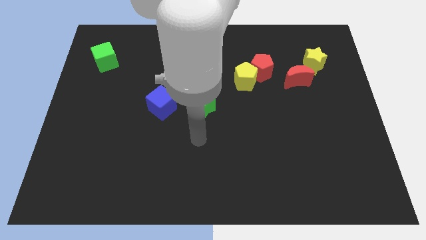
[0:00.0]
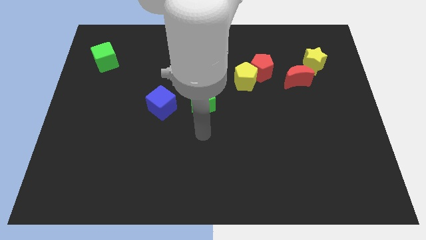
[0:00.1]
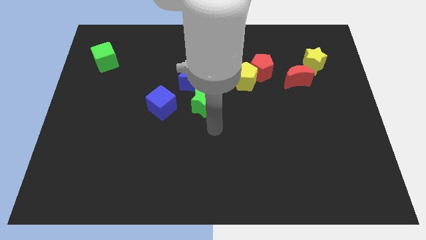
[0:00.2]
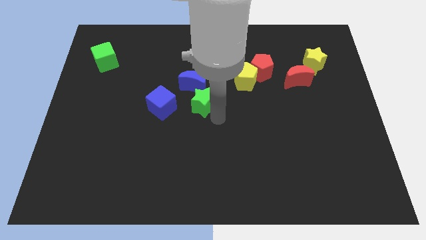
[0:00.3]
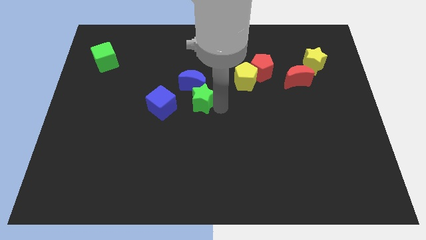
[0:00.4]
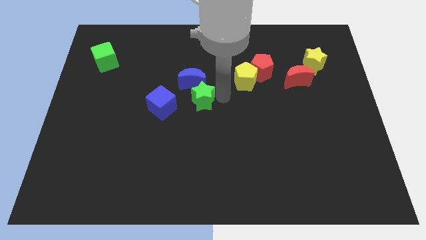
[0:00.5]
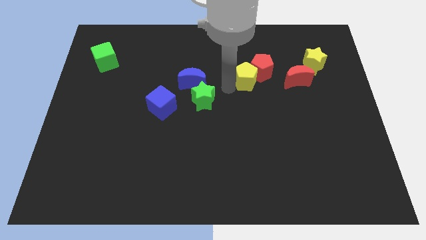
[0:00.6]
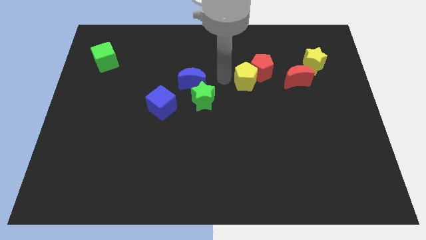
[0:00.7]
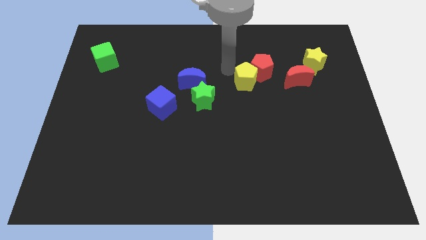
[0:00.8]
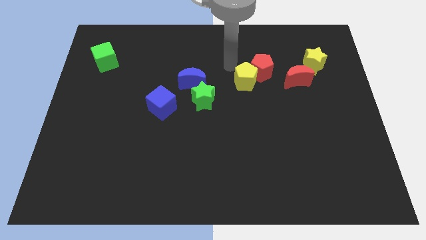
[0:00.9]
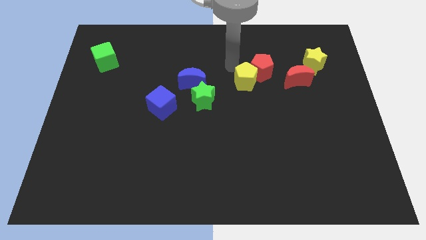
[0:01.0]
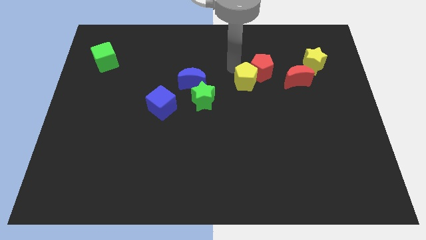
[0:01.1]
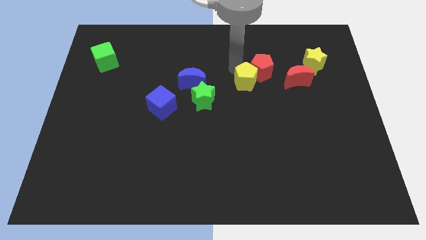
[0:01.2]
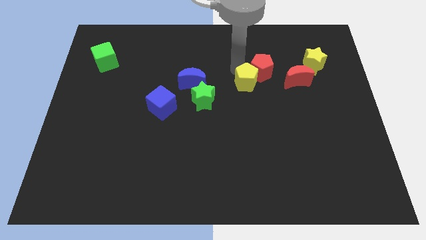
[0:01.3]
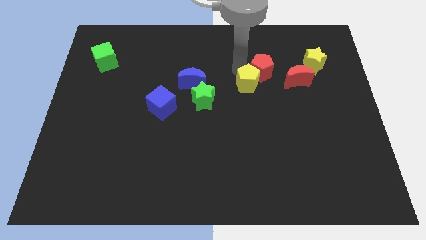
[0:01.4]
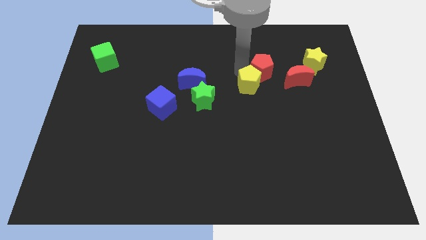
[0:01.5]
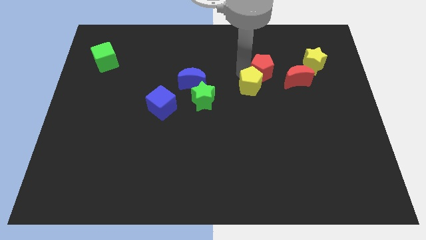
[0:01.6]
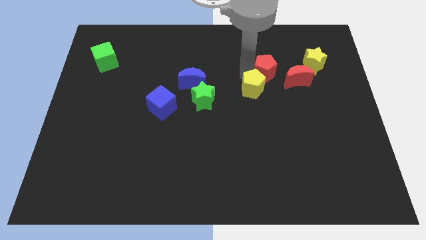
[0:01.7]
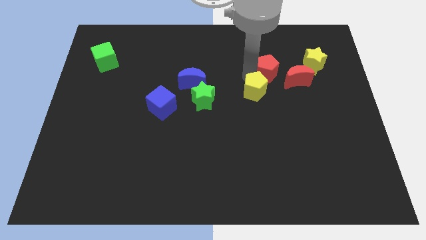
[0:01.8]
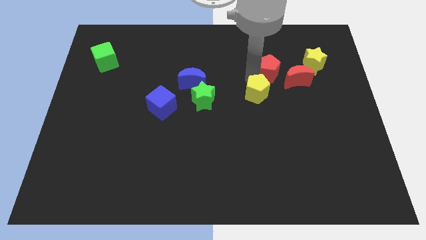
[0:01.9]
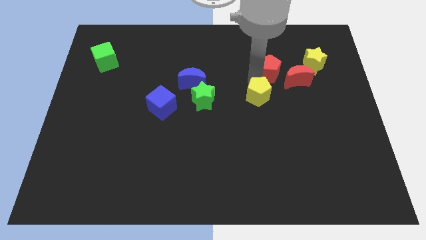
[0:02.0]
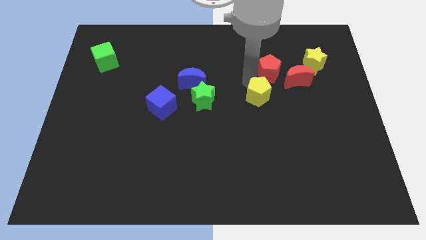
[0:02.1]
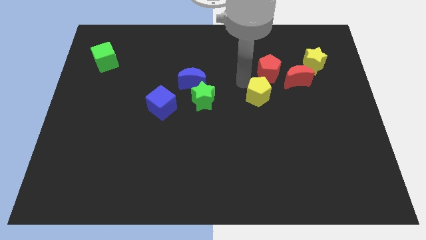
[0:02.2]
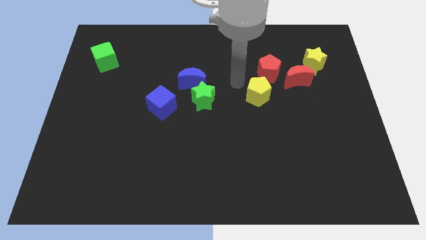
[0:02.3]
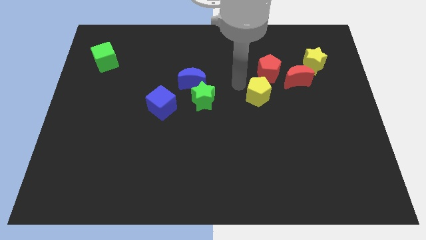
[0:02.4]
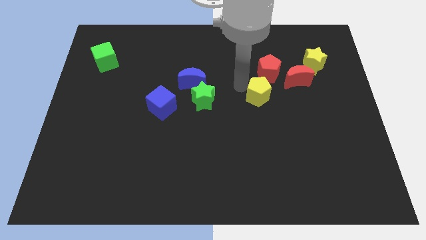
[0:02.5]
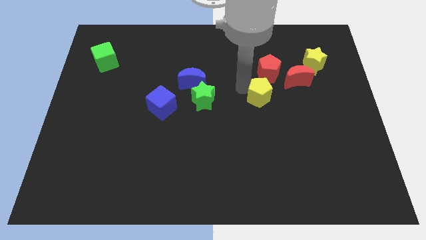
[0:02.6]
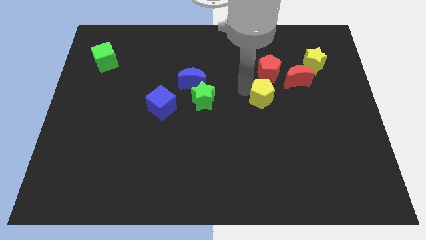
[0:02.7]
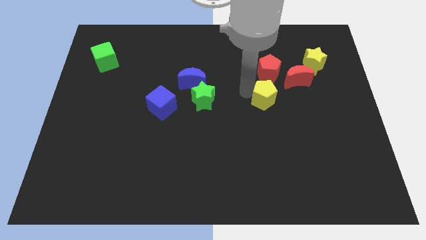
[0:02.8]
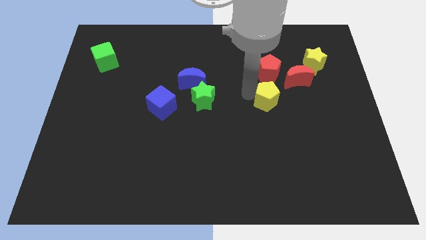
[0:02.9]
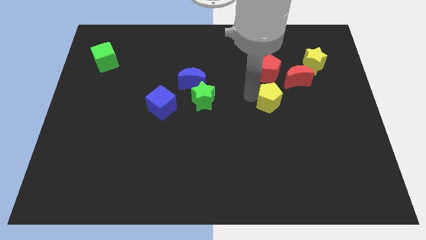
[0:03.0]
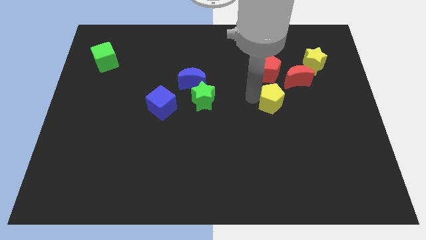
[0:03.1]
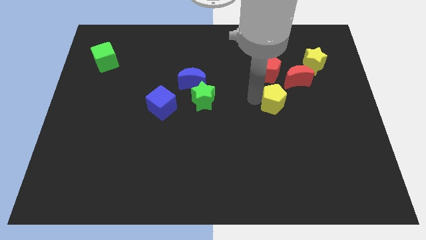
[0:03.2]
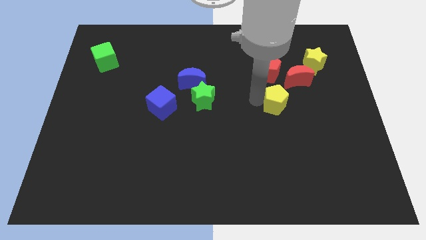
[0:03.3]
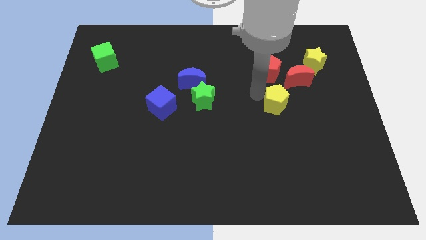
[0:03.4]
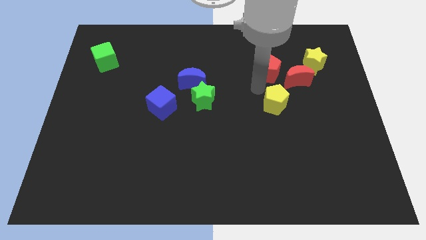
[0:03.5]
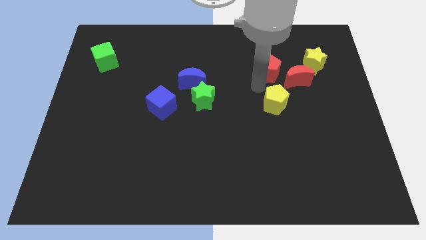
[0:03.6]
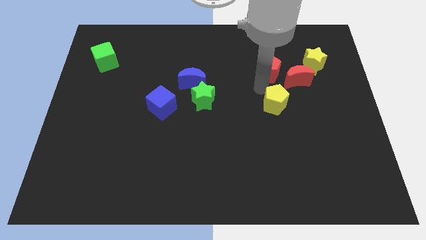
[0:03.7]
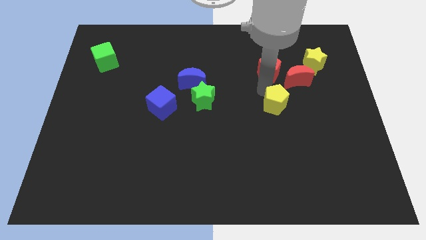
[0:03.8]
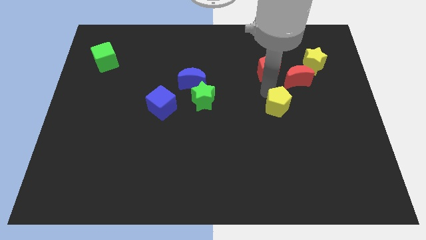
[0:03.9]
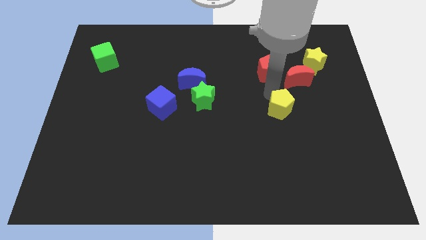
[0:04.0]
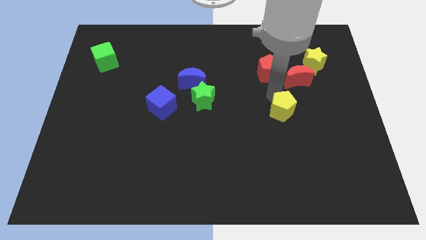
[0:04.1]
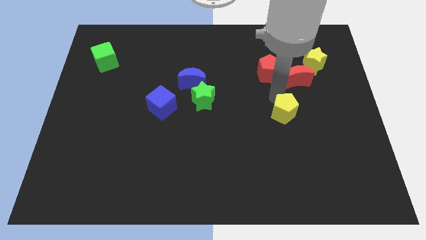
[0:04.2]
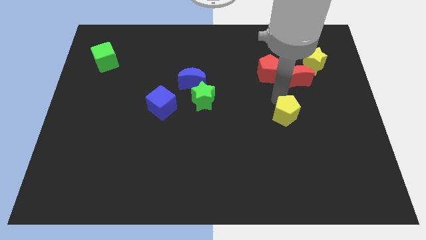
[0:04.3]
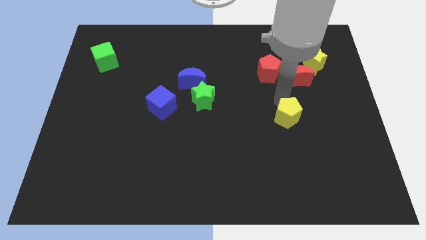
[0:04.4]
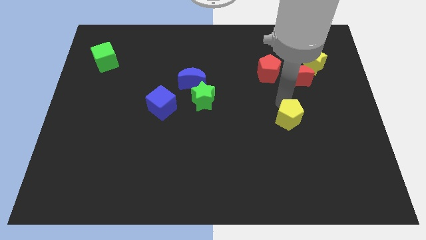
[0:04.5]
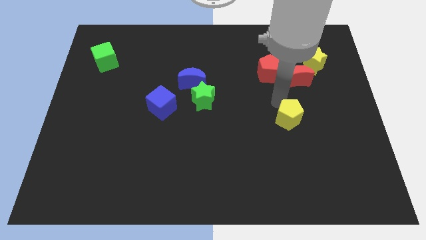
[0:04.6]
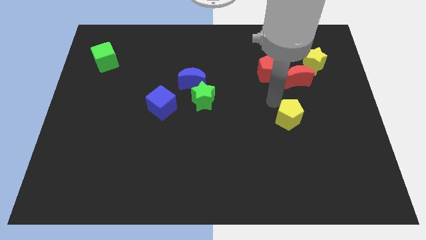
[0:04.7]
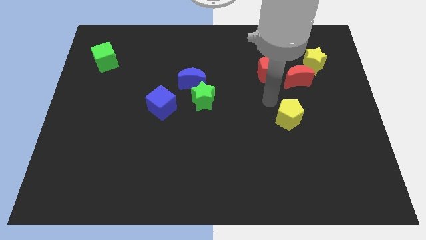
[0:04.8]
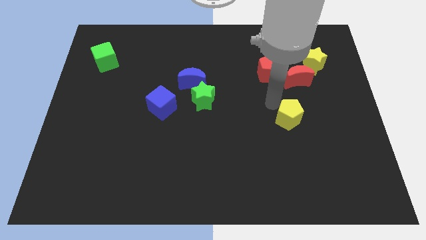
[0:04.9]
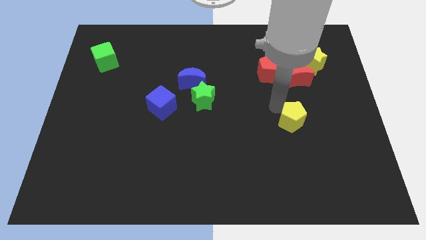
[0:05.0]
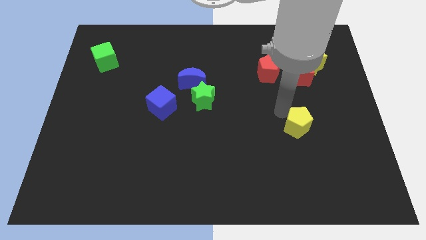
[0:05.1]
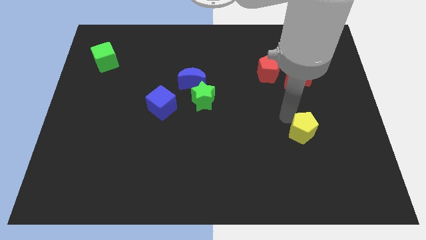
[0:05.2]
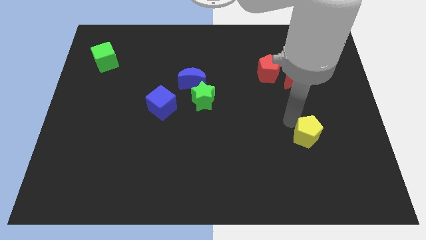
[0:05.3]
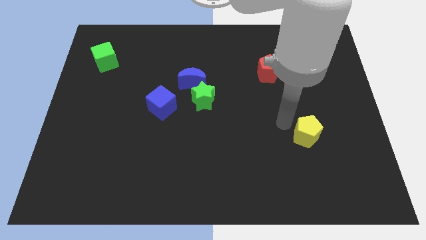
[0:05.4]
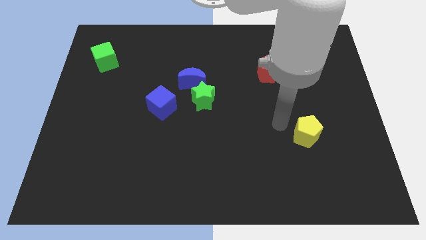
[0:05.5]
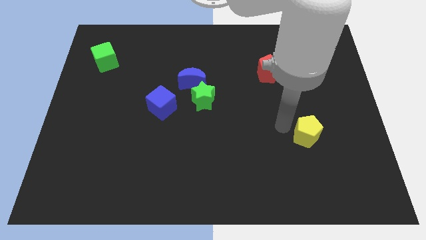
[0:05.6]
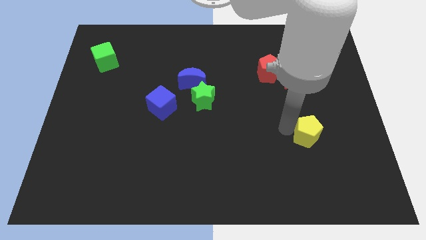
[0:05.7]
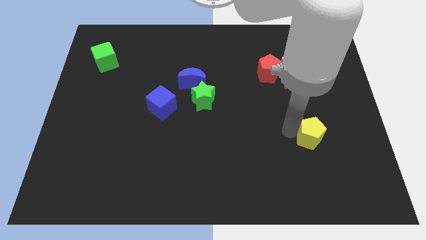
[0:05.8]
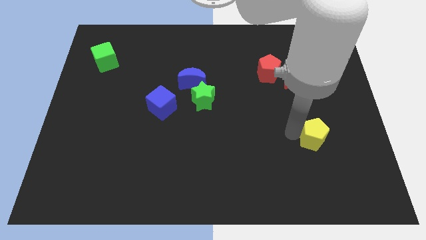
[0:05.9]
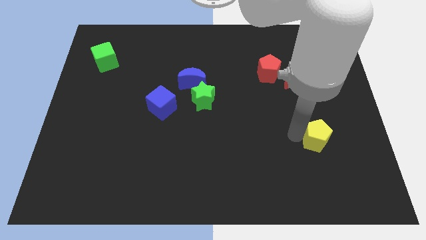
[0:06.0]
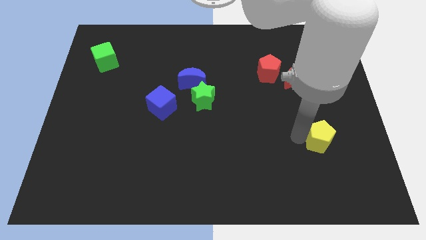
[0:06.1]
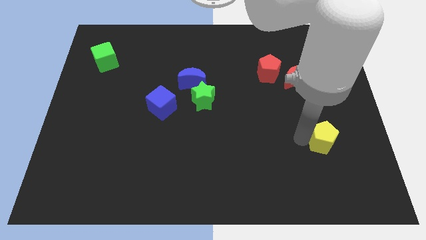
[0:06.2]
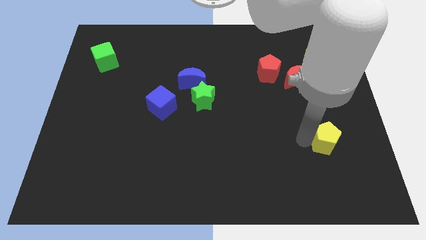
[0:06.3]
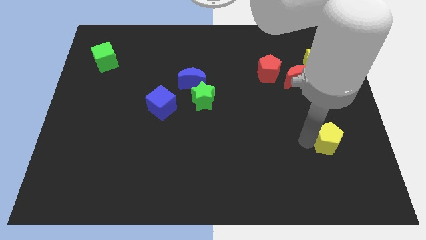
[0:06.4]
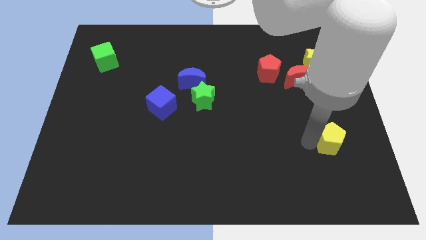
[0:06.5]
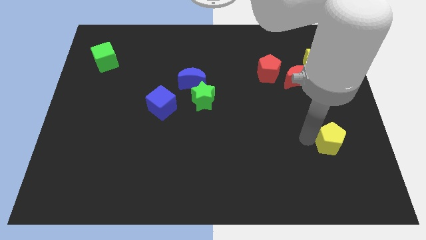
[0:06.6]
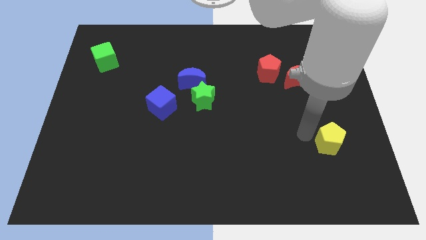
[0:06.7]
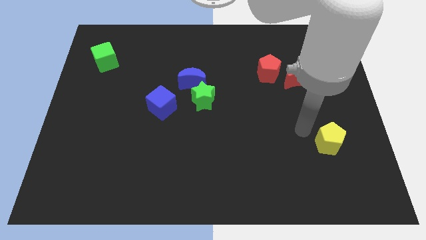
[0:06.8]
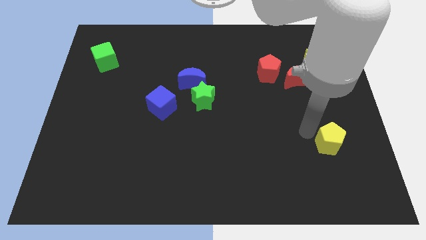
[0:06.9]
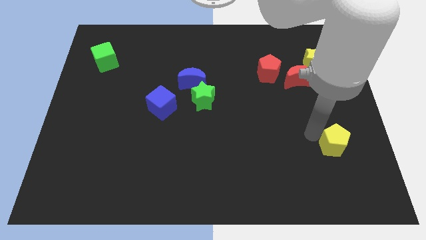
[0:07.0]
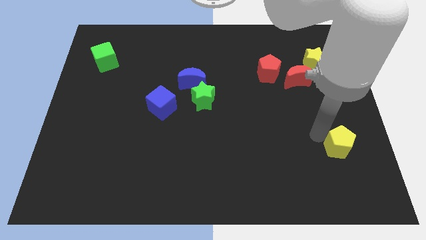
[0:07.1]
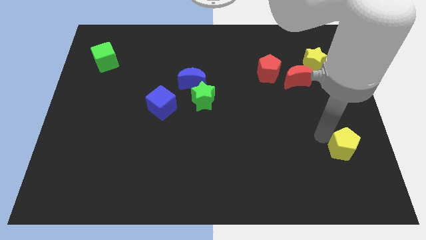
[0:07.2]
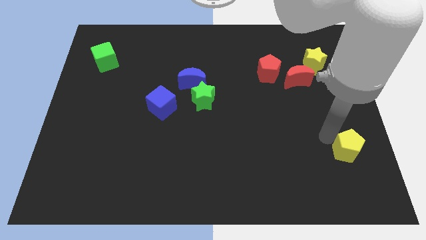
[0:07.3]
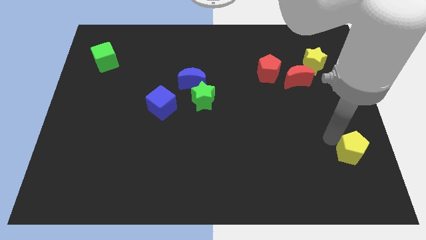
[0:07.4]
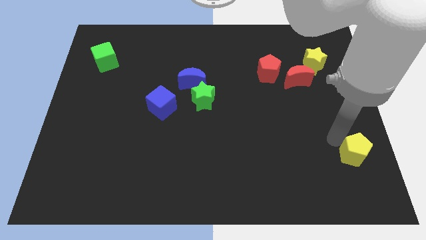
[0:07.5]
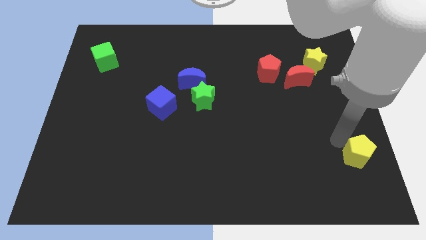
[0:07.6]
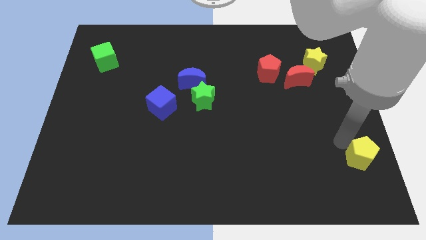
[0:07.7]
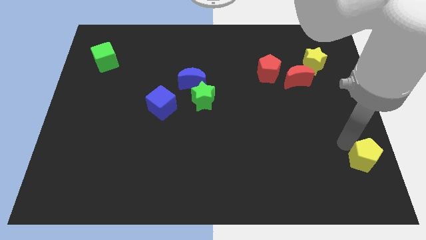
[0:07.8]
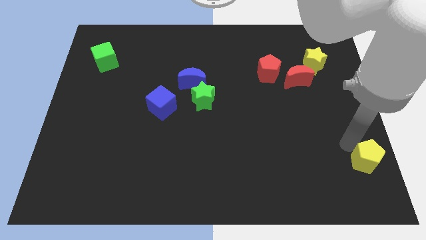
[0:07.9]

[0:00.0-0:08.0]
slide the yellow pentagon to the bottom right of the board
